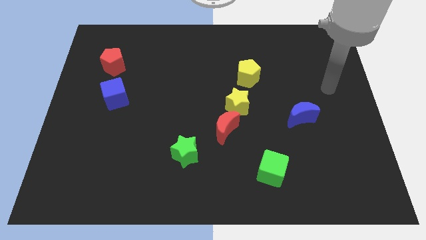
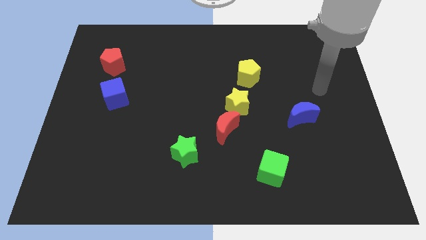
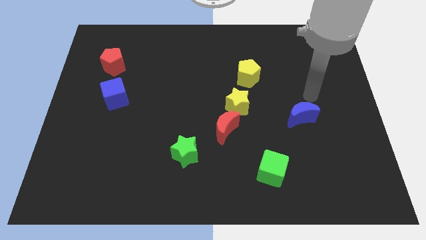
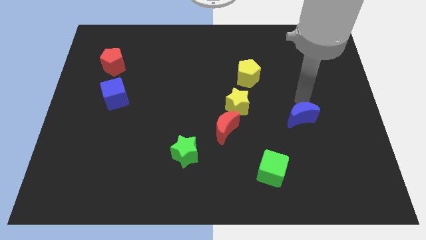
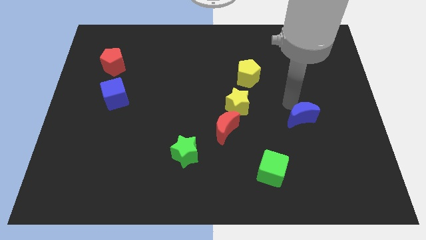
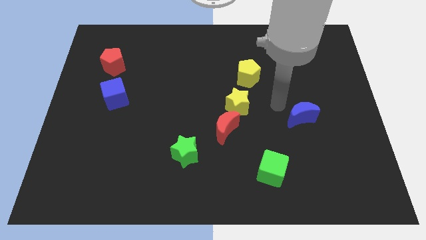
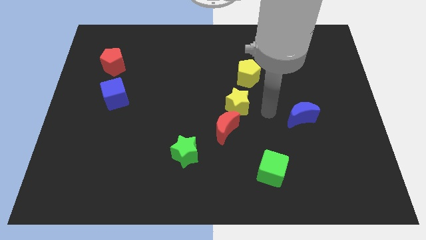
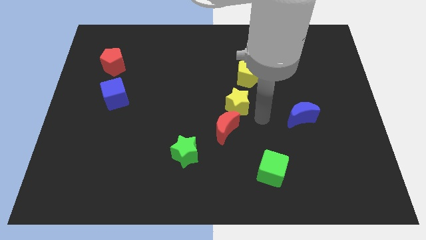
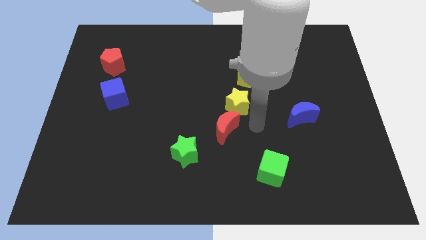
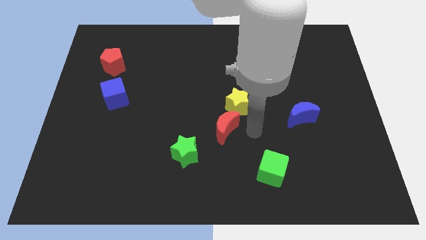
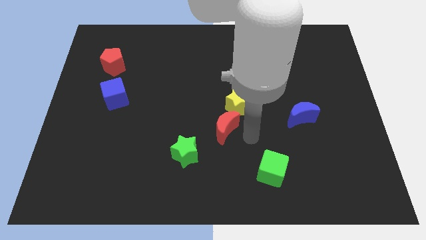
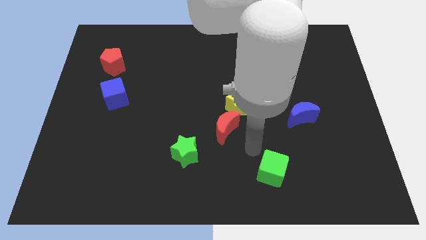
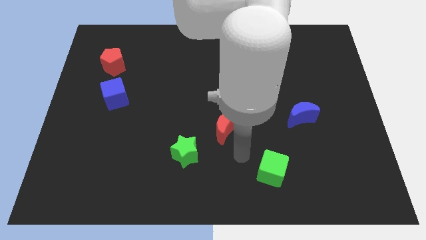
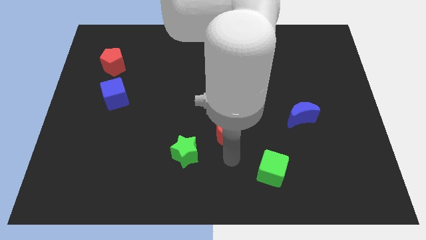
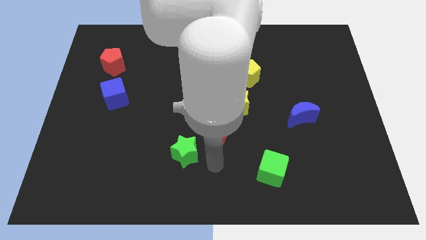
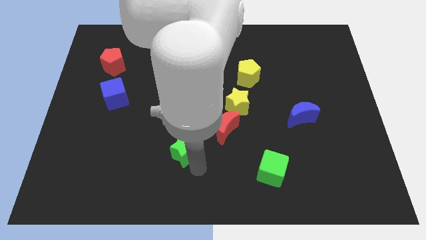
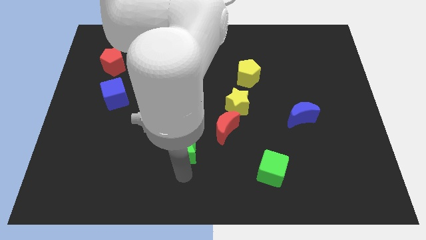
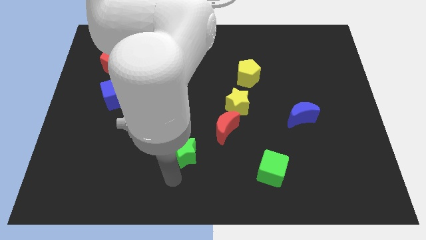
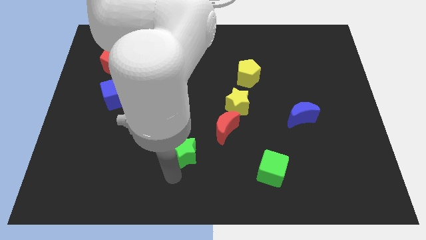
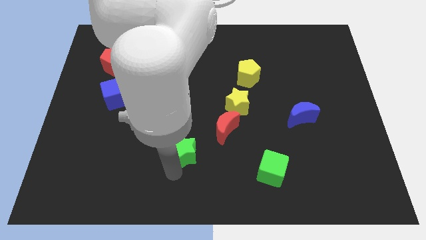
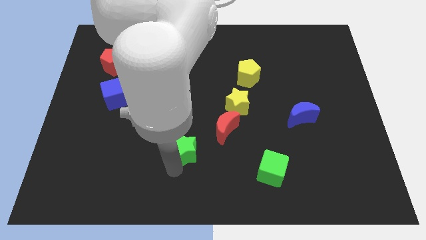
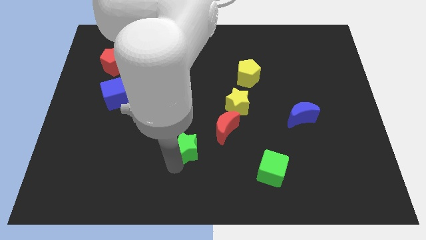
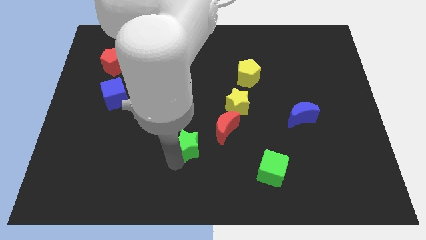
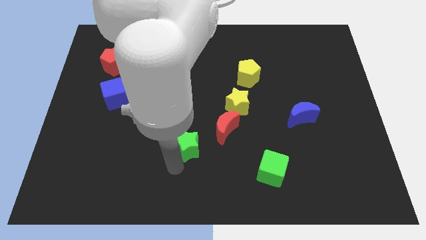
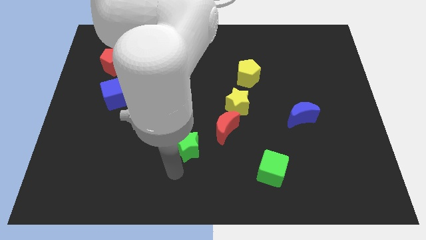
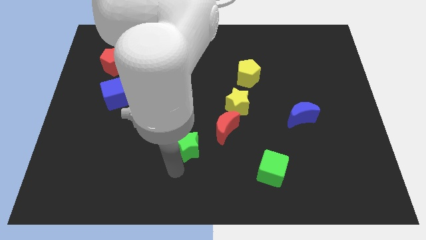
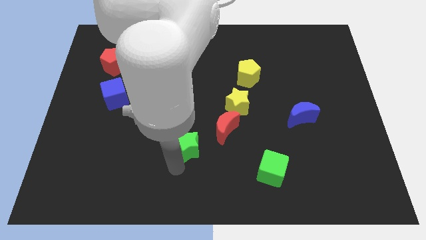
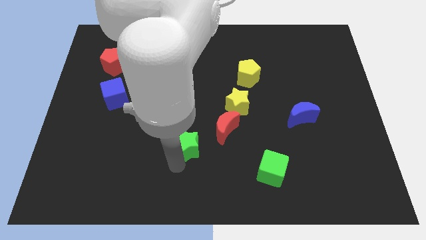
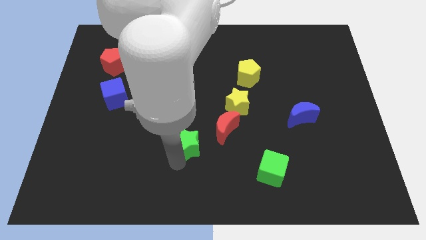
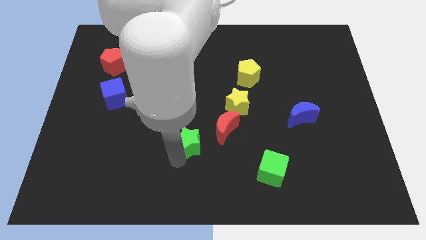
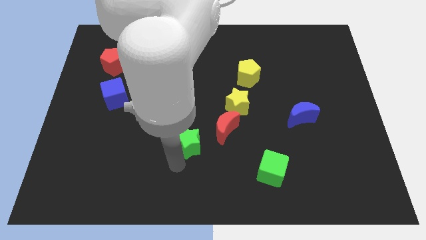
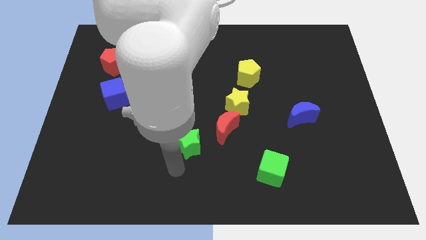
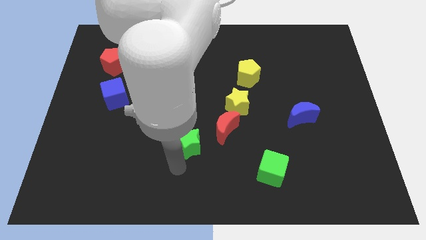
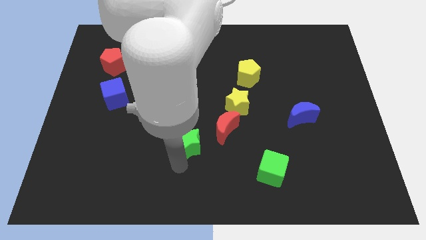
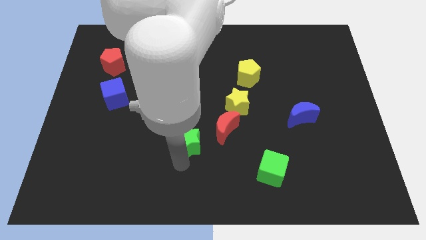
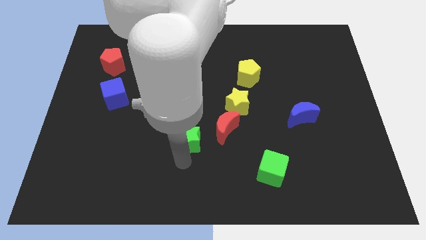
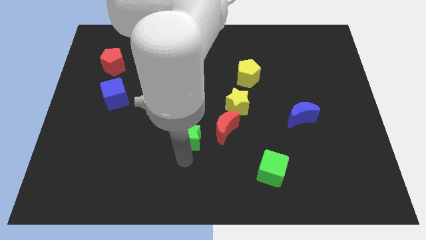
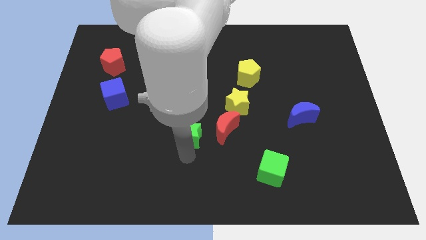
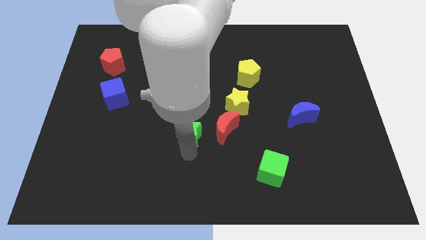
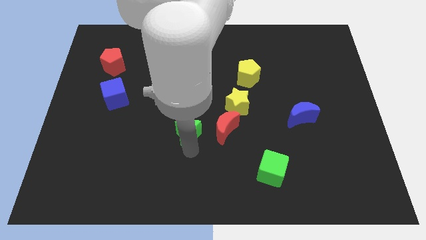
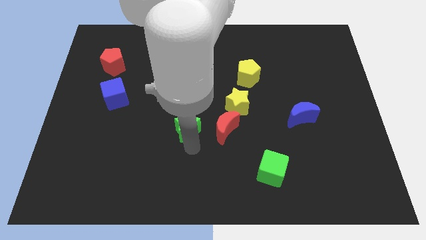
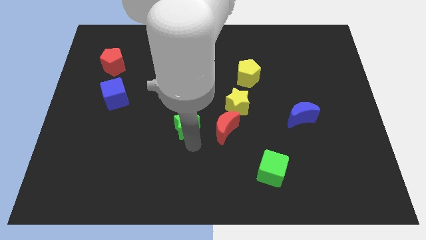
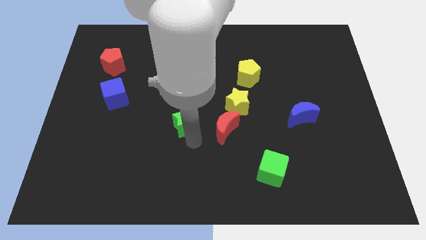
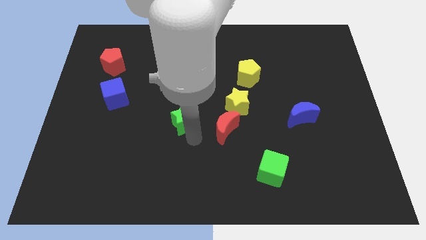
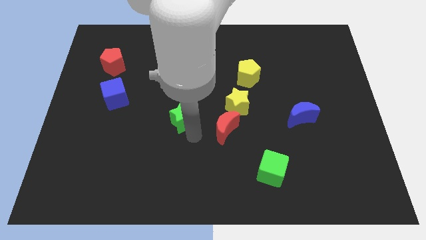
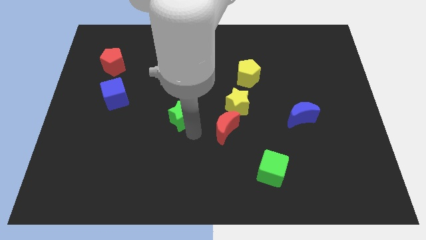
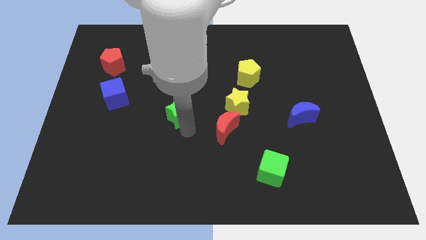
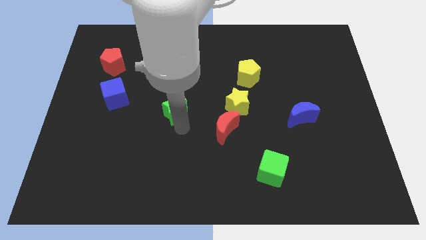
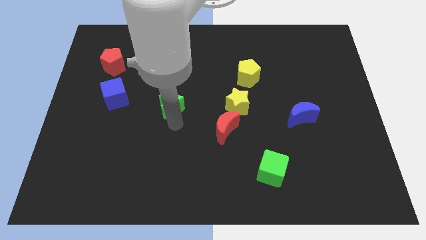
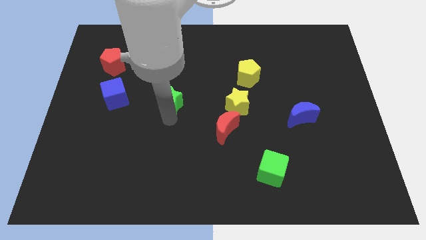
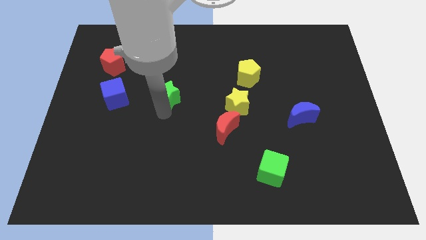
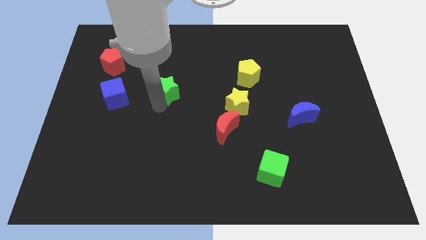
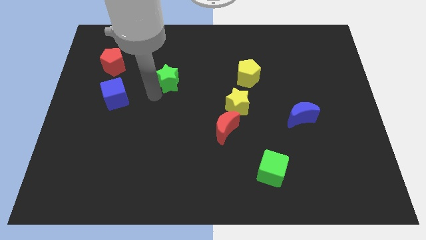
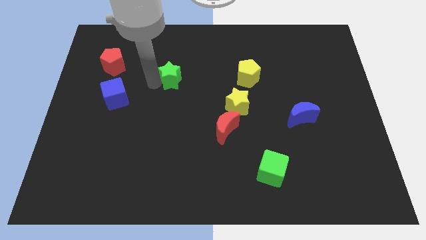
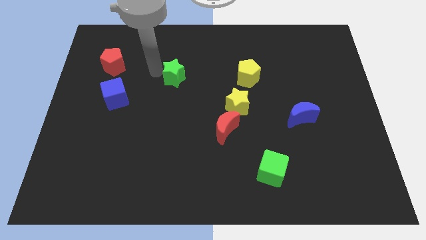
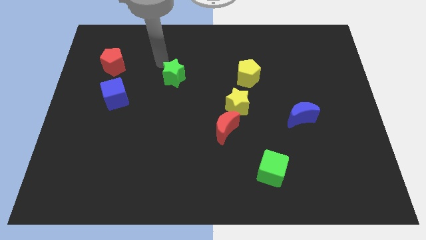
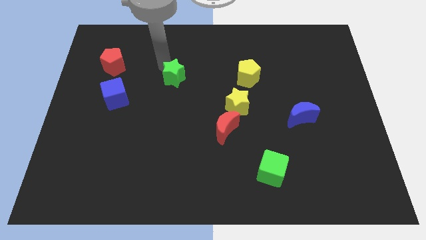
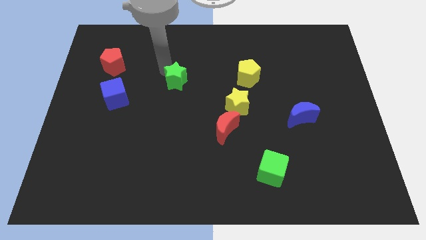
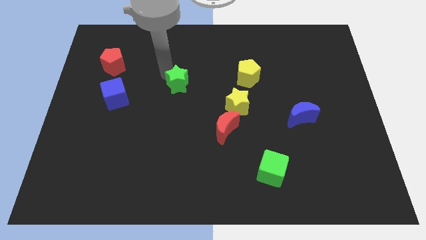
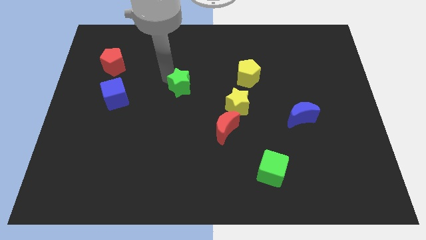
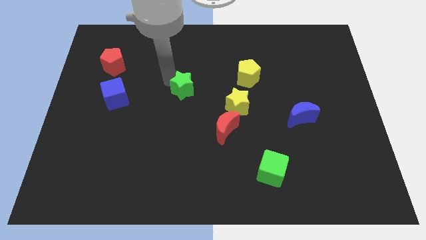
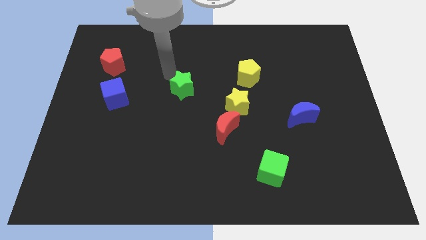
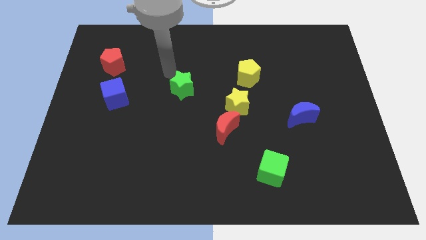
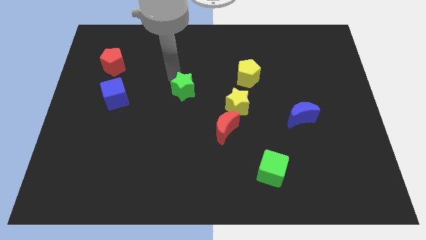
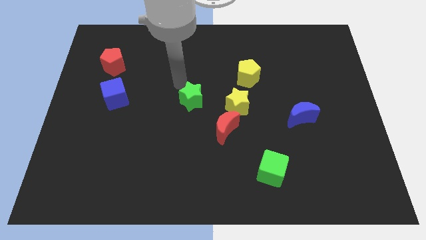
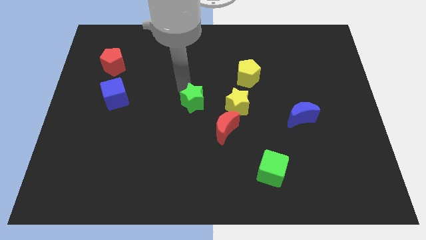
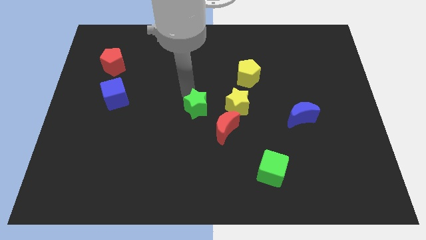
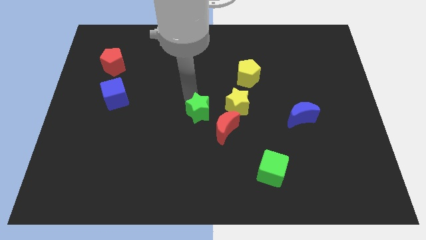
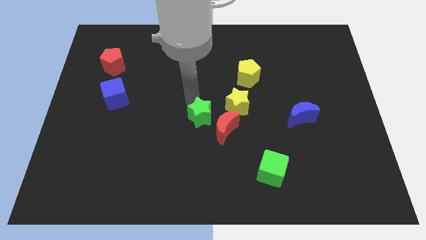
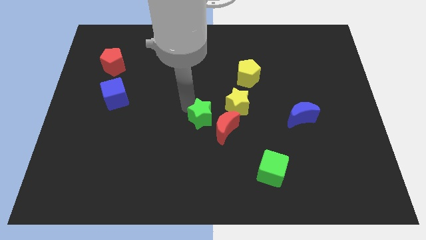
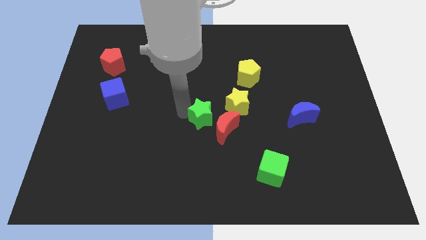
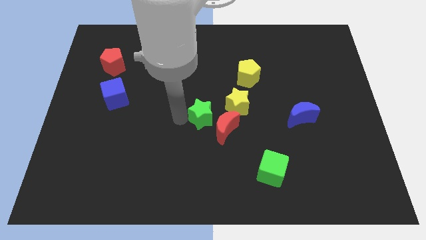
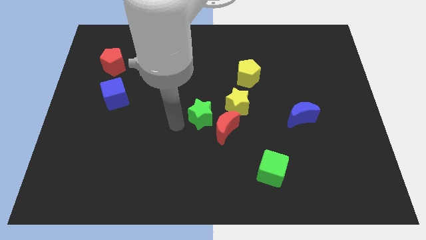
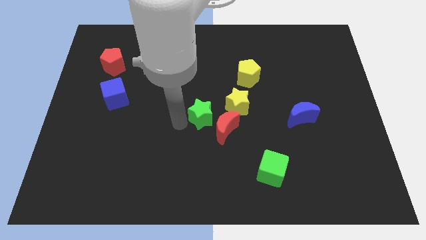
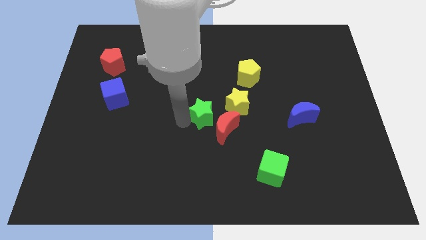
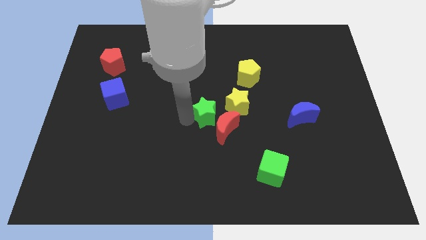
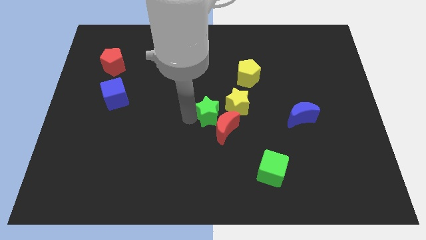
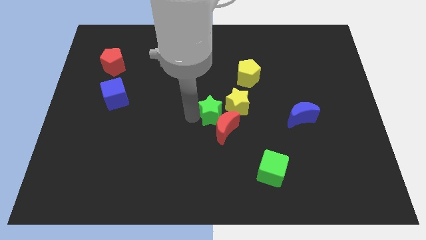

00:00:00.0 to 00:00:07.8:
move the green star towards the yellow star
